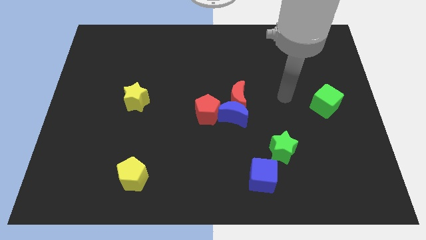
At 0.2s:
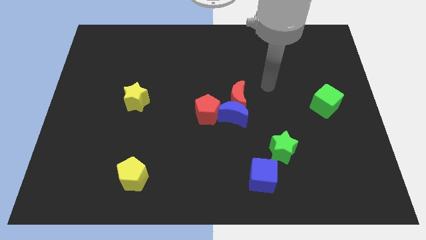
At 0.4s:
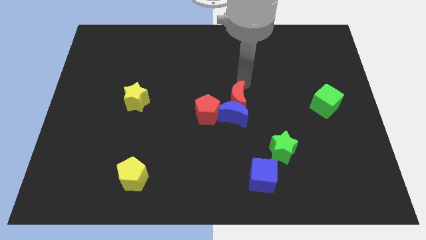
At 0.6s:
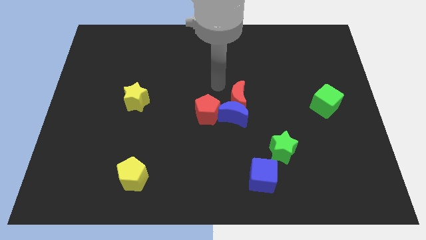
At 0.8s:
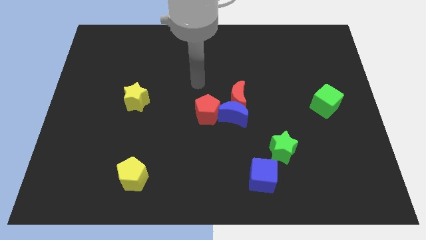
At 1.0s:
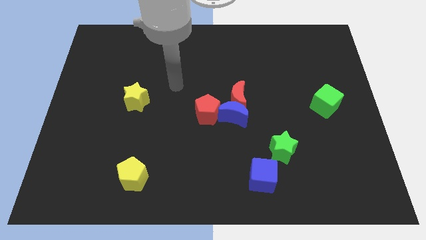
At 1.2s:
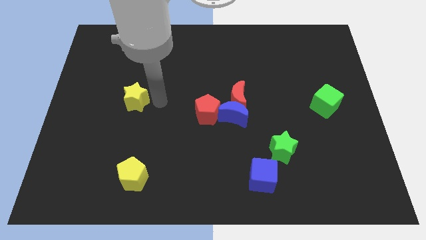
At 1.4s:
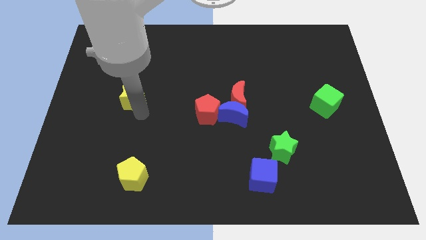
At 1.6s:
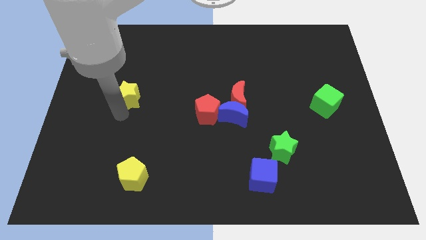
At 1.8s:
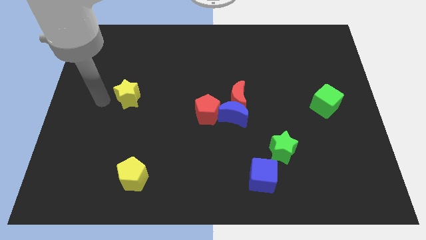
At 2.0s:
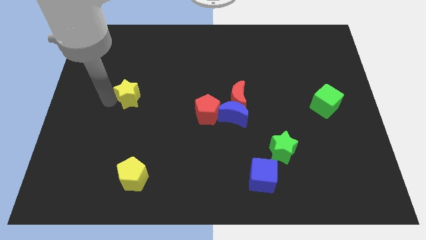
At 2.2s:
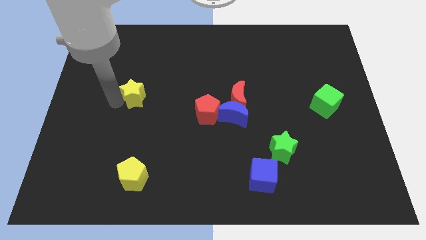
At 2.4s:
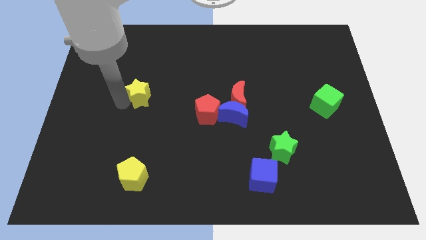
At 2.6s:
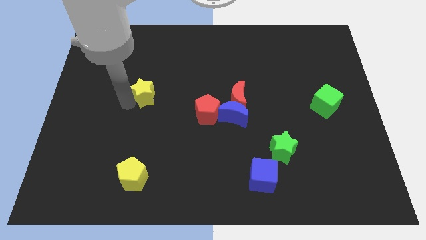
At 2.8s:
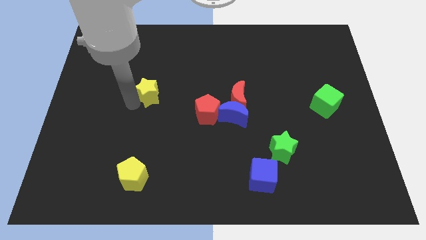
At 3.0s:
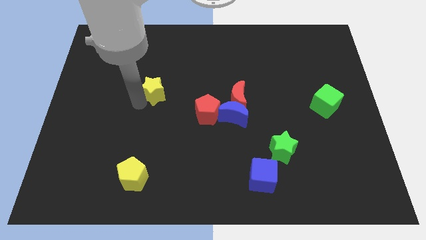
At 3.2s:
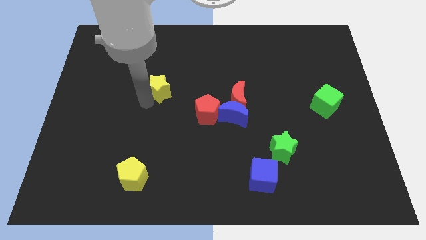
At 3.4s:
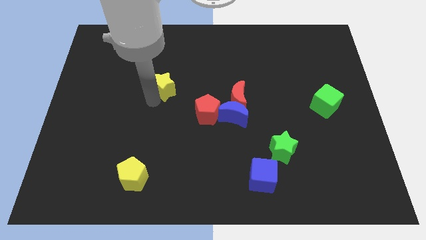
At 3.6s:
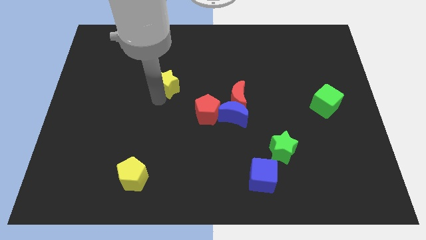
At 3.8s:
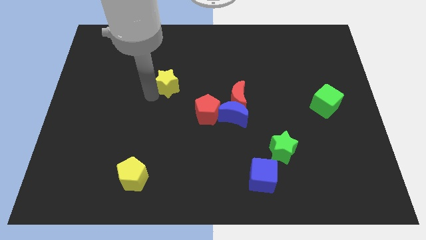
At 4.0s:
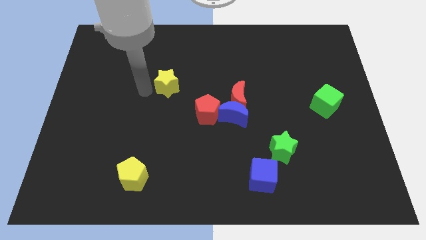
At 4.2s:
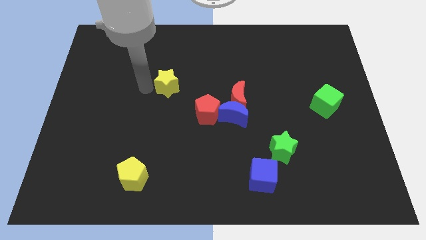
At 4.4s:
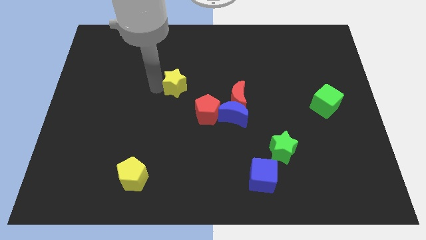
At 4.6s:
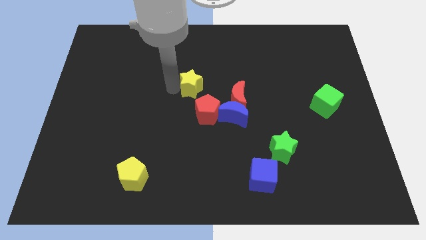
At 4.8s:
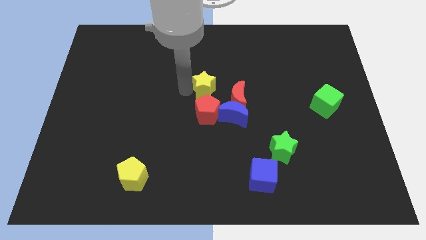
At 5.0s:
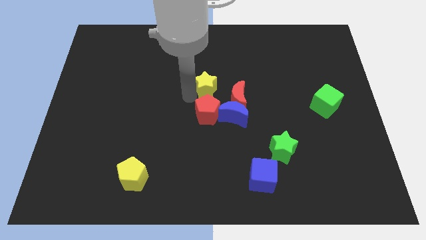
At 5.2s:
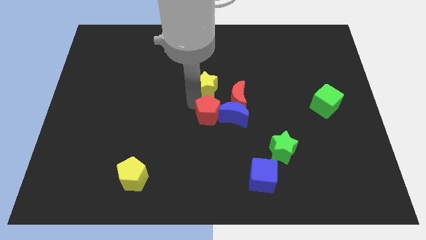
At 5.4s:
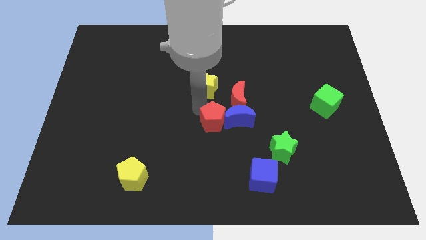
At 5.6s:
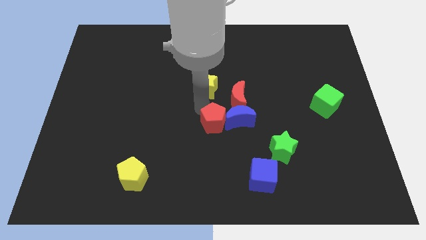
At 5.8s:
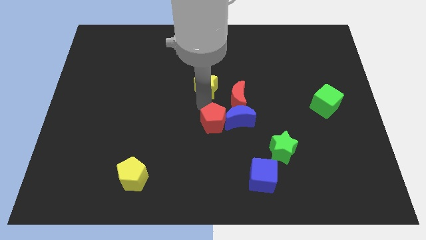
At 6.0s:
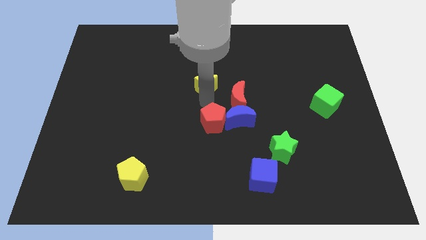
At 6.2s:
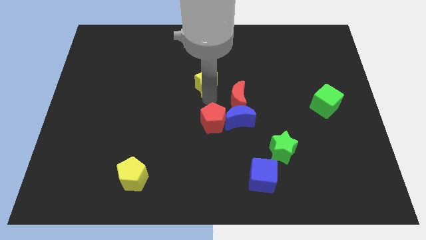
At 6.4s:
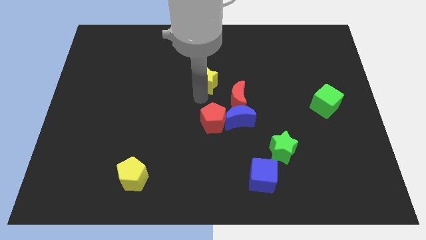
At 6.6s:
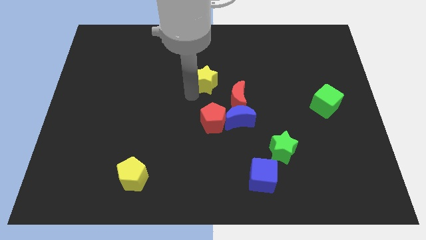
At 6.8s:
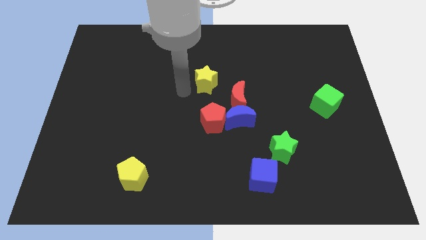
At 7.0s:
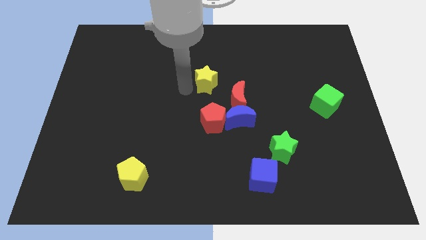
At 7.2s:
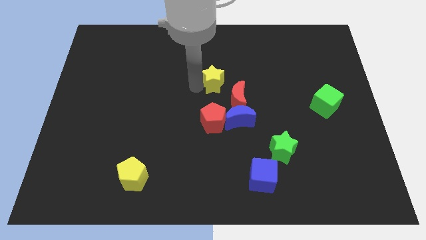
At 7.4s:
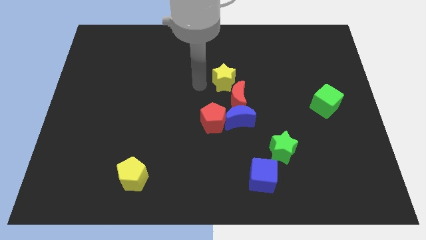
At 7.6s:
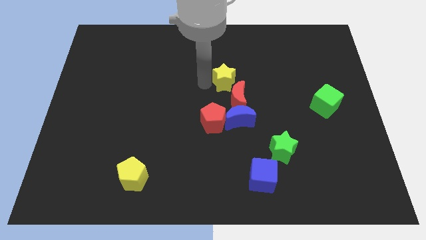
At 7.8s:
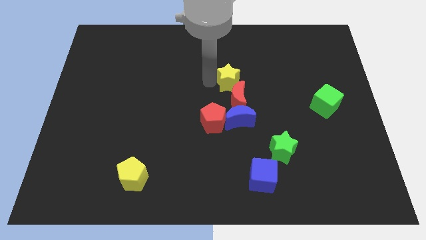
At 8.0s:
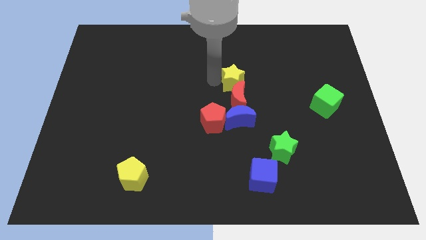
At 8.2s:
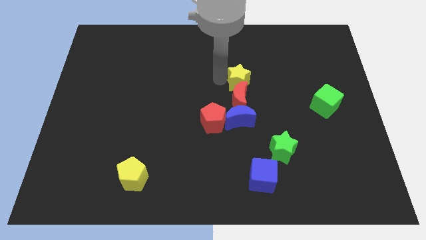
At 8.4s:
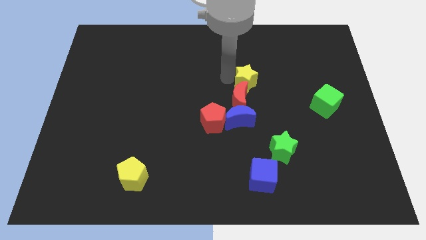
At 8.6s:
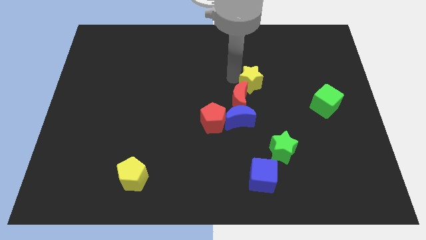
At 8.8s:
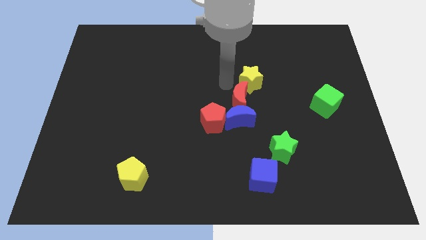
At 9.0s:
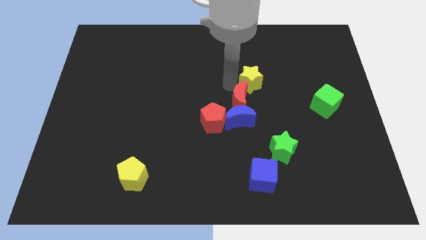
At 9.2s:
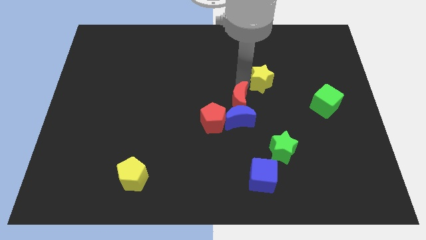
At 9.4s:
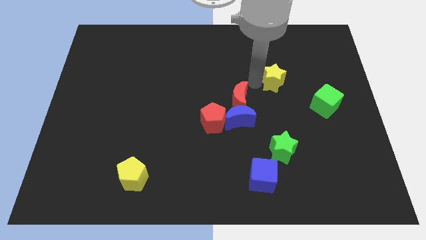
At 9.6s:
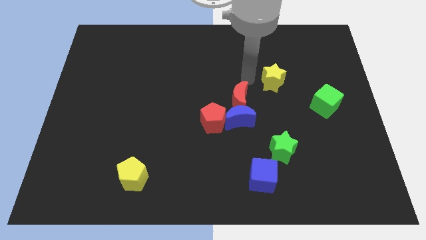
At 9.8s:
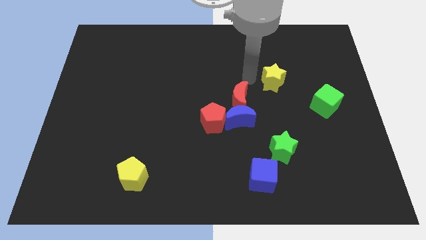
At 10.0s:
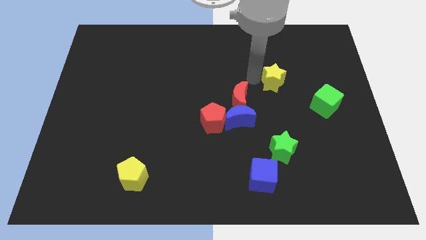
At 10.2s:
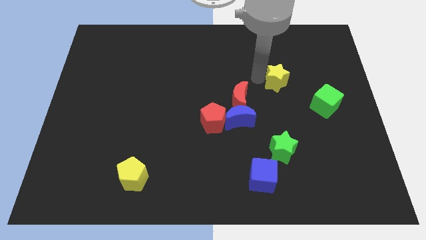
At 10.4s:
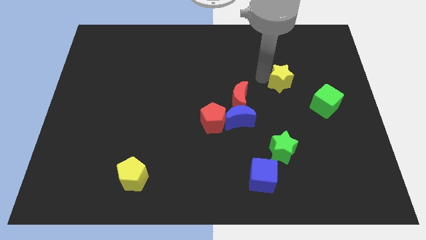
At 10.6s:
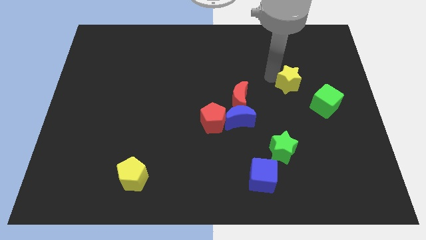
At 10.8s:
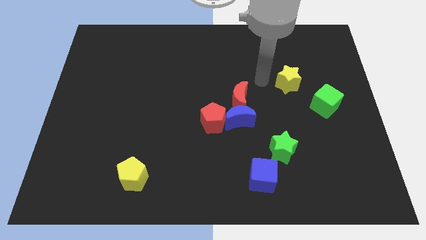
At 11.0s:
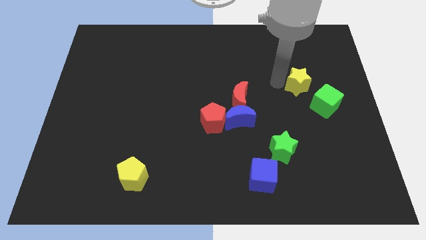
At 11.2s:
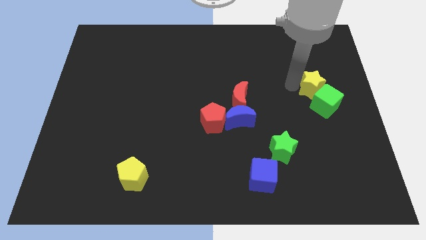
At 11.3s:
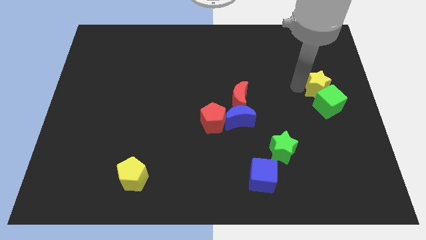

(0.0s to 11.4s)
slide the yellow star to the center right
